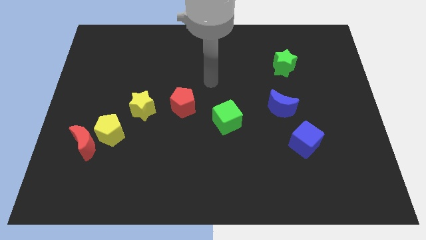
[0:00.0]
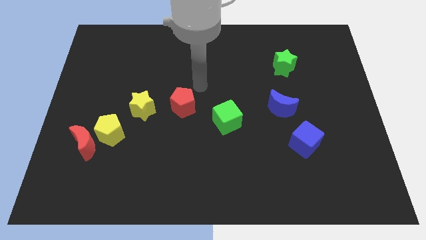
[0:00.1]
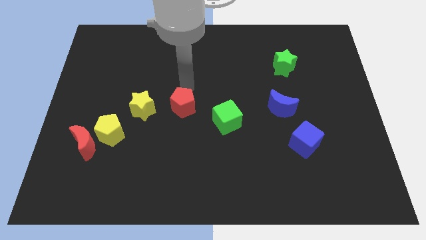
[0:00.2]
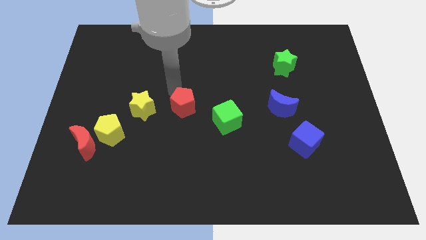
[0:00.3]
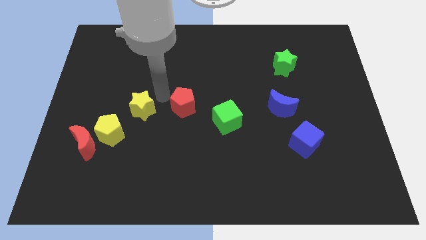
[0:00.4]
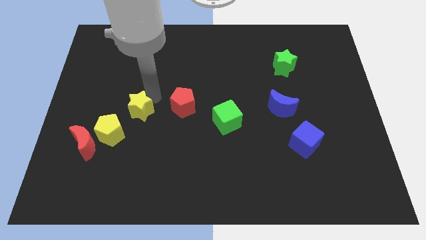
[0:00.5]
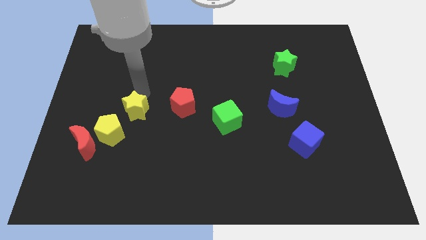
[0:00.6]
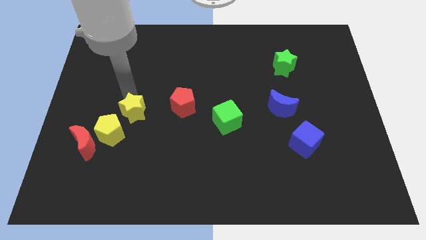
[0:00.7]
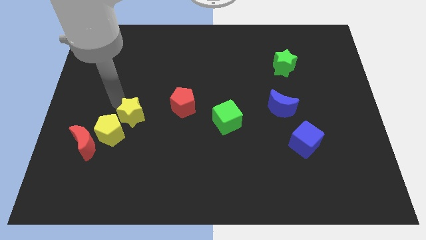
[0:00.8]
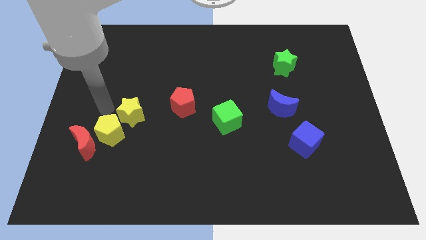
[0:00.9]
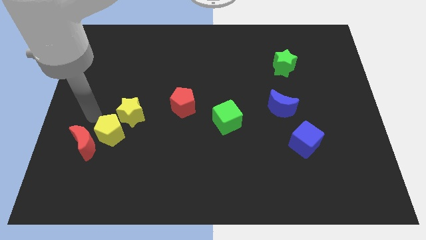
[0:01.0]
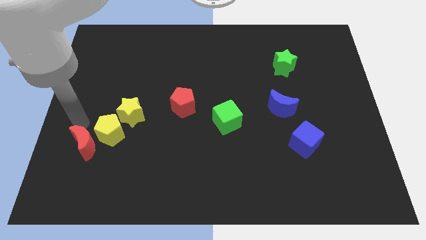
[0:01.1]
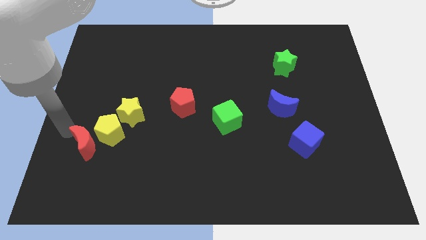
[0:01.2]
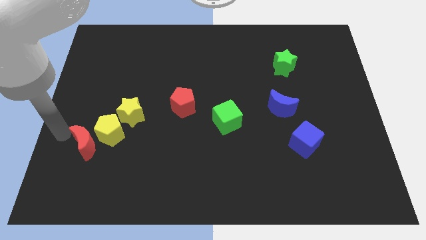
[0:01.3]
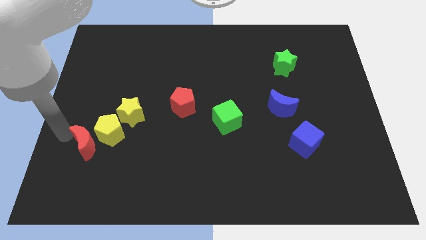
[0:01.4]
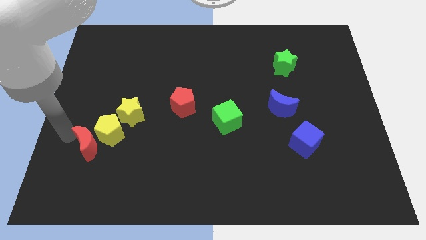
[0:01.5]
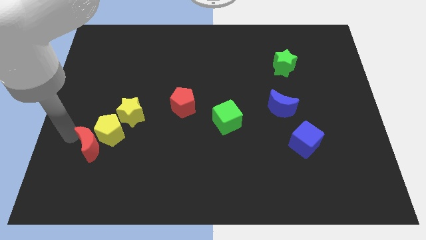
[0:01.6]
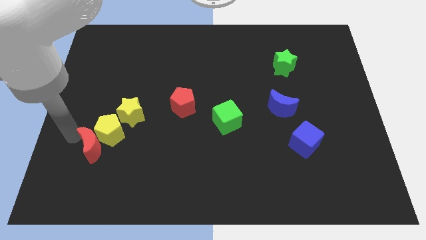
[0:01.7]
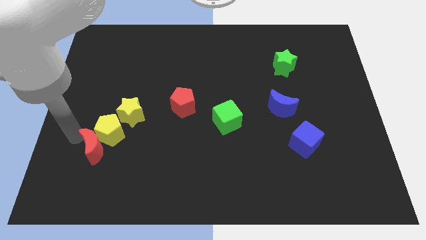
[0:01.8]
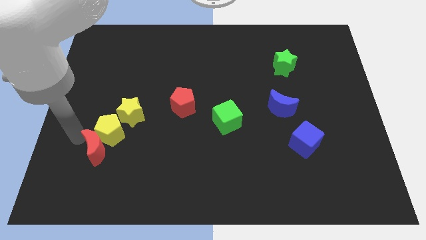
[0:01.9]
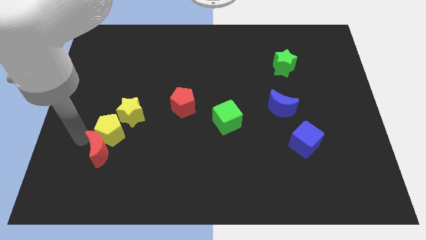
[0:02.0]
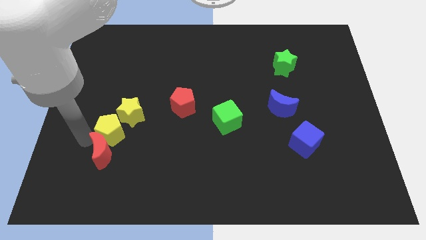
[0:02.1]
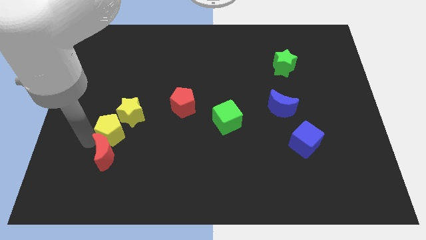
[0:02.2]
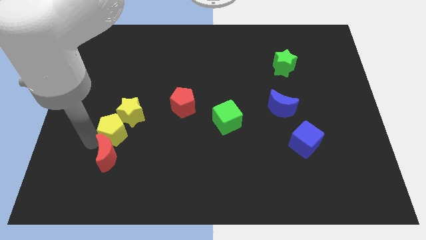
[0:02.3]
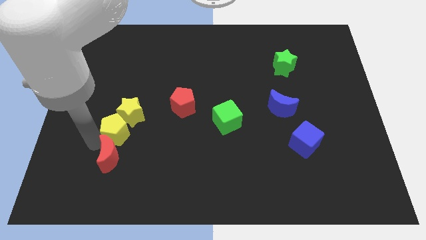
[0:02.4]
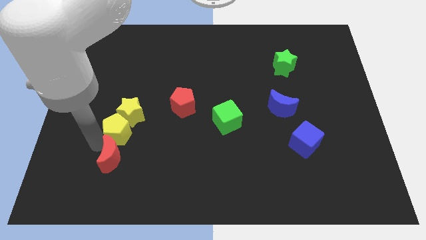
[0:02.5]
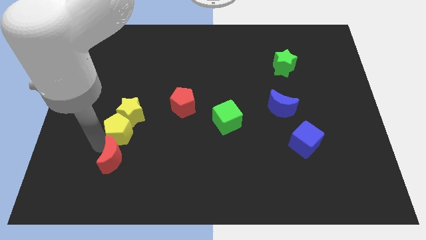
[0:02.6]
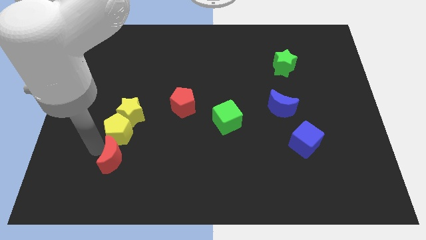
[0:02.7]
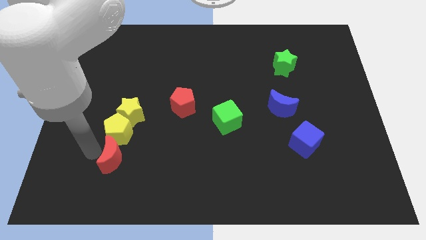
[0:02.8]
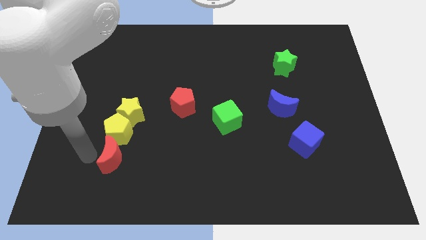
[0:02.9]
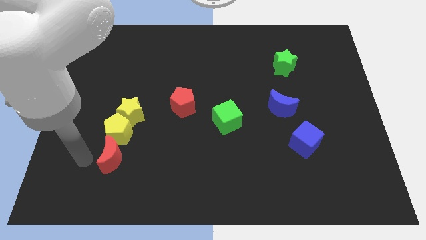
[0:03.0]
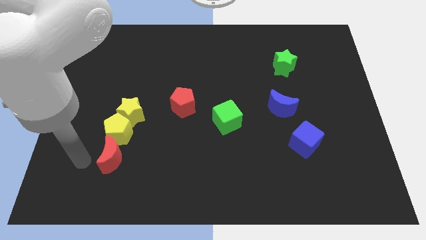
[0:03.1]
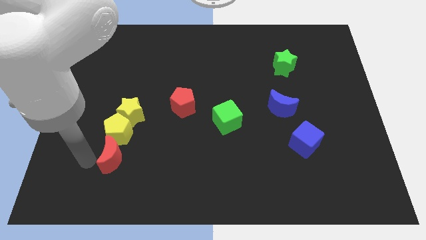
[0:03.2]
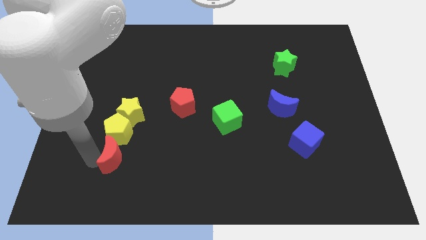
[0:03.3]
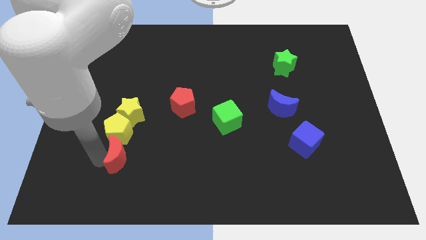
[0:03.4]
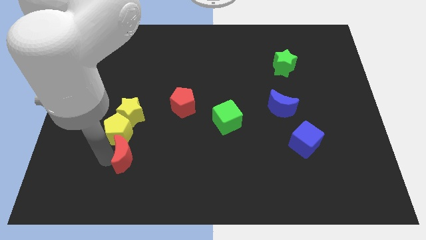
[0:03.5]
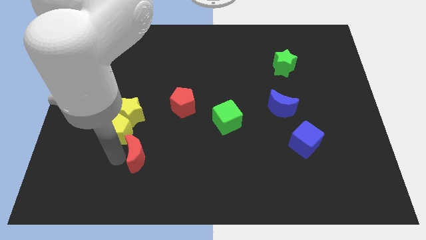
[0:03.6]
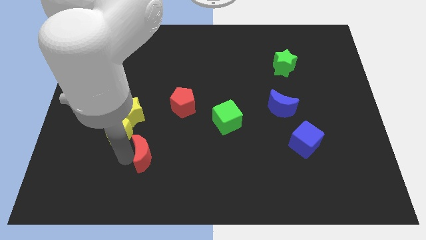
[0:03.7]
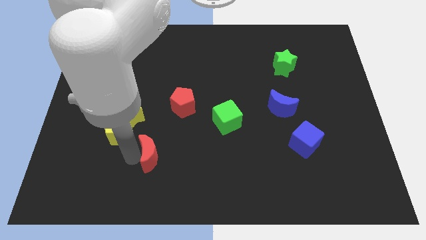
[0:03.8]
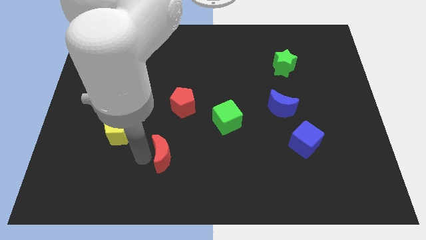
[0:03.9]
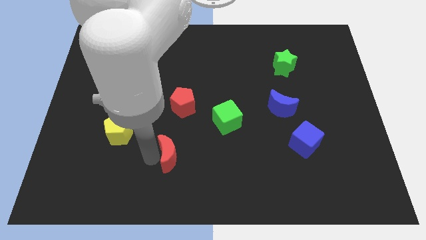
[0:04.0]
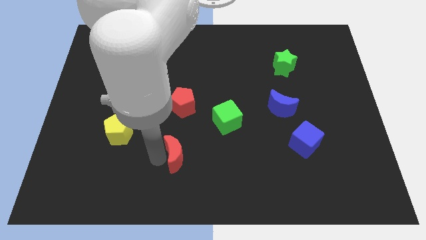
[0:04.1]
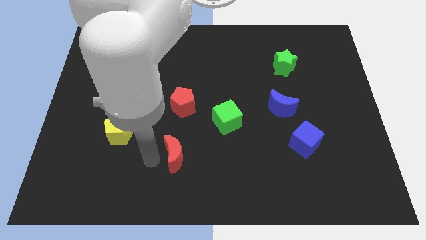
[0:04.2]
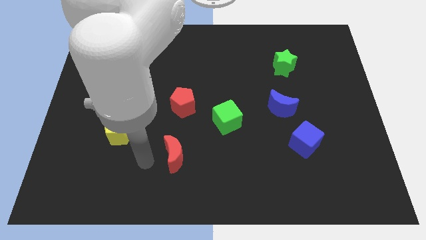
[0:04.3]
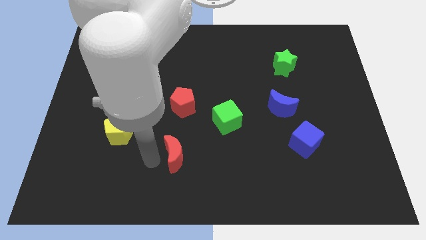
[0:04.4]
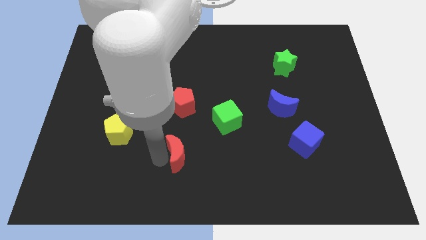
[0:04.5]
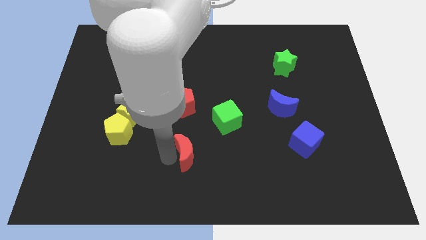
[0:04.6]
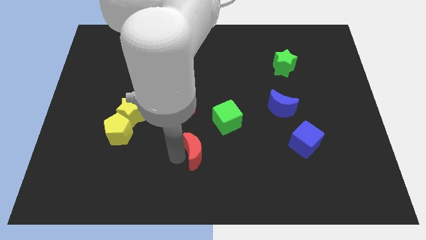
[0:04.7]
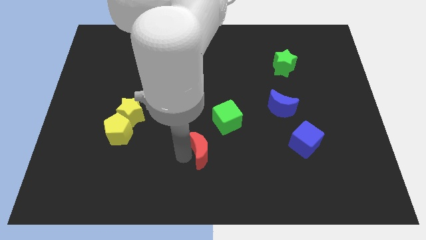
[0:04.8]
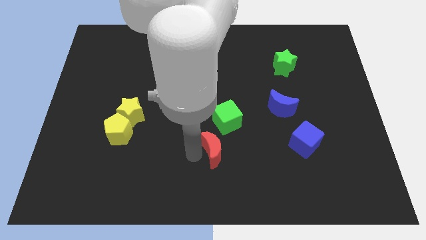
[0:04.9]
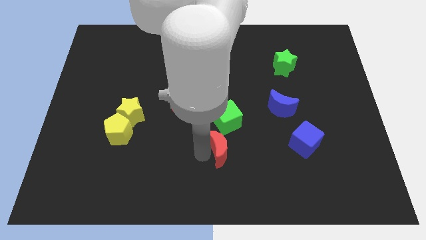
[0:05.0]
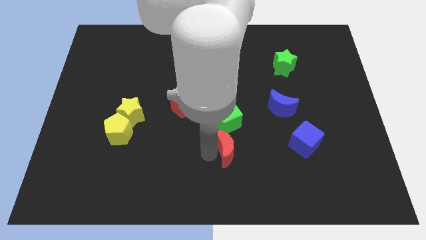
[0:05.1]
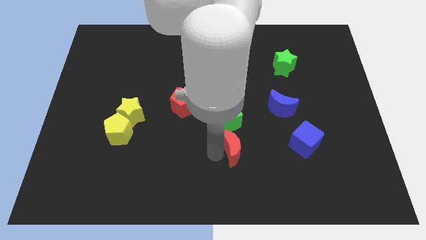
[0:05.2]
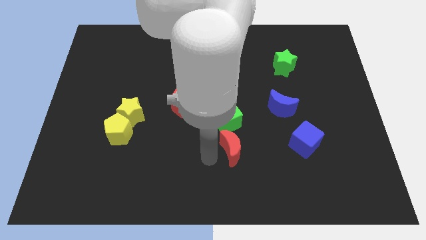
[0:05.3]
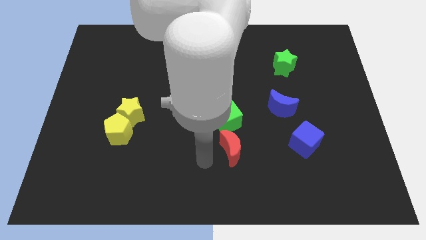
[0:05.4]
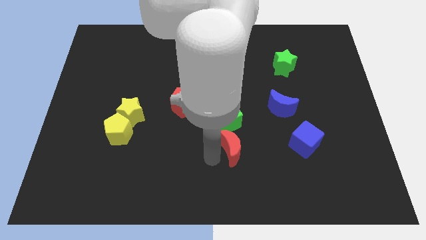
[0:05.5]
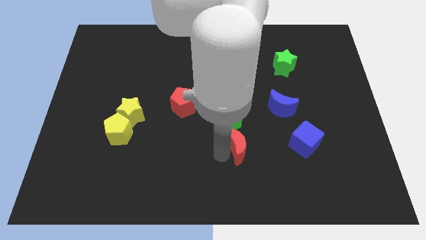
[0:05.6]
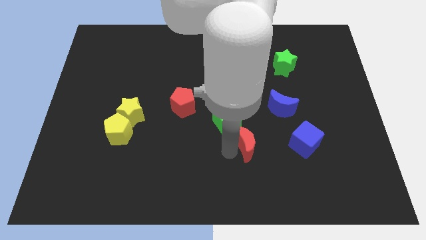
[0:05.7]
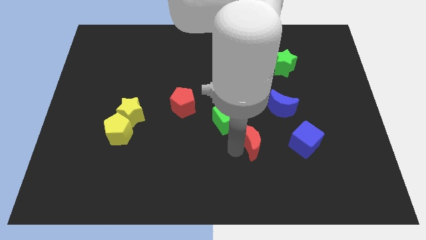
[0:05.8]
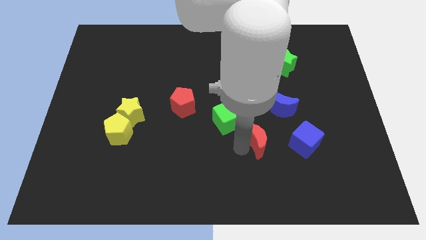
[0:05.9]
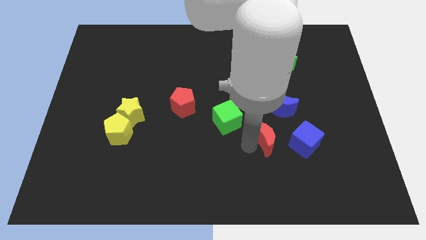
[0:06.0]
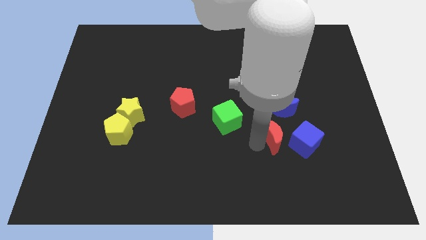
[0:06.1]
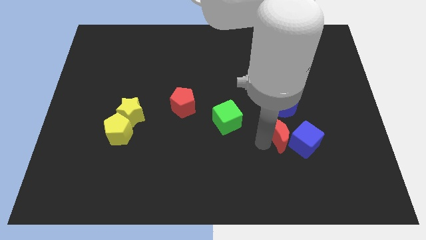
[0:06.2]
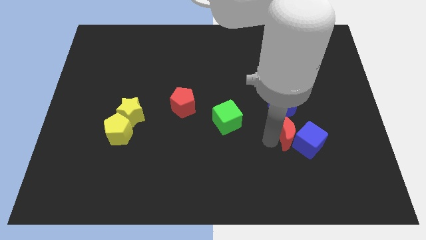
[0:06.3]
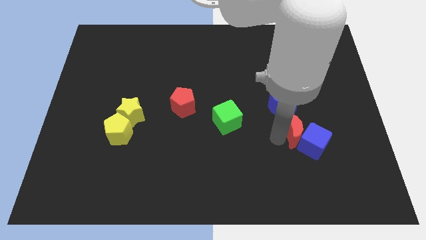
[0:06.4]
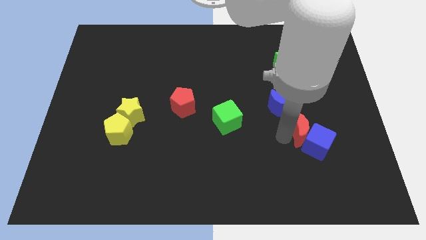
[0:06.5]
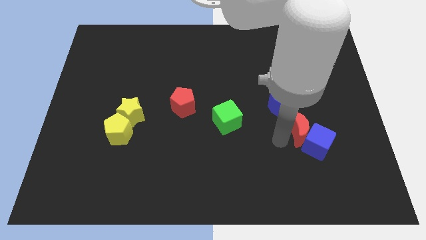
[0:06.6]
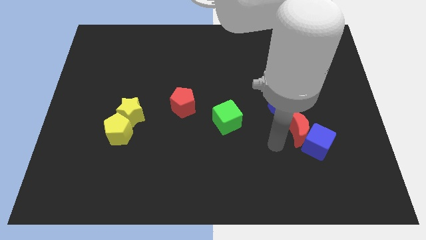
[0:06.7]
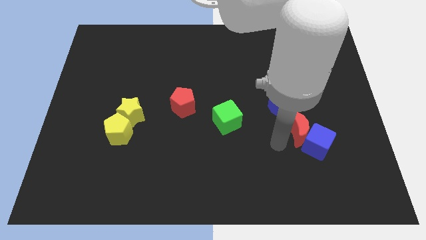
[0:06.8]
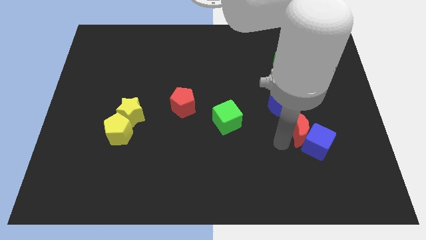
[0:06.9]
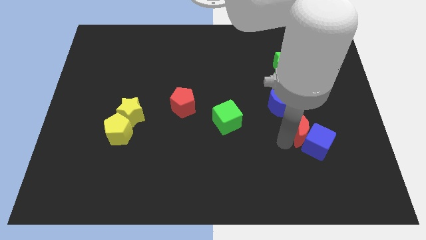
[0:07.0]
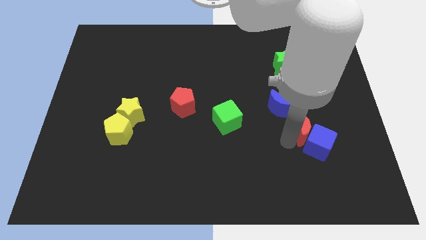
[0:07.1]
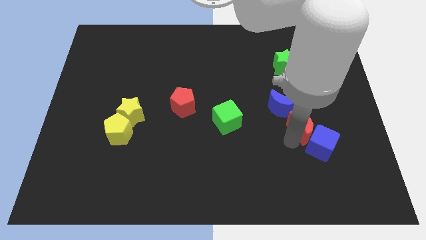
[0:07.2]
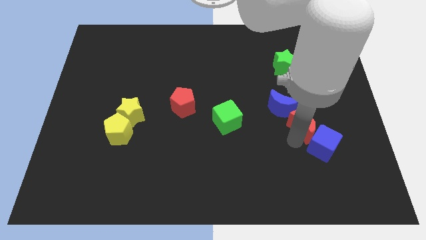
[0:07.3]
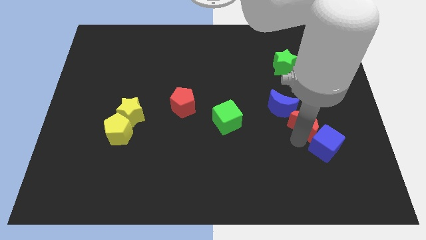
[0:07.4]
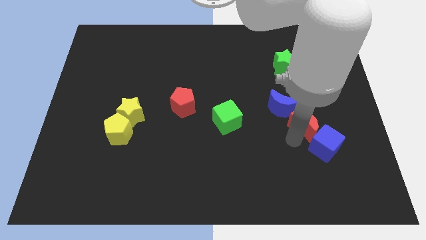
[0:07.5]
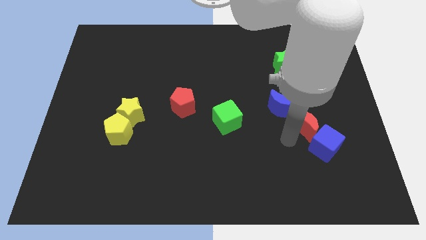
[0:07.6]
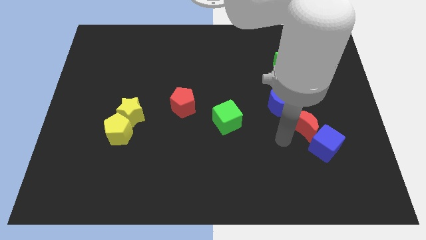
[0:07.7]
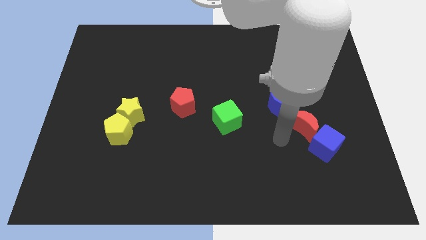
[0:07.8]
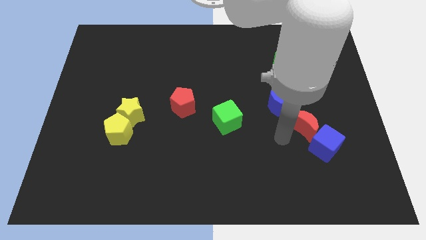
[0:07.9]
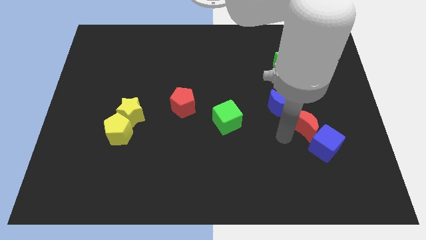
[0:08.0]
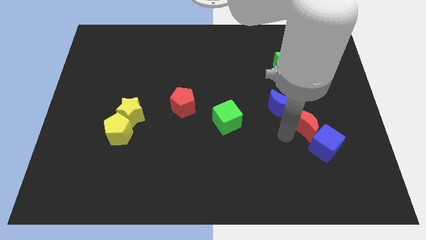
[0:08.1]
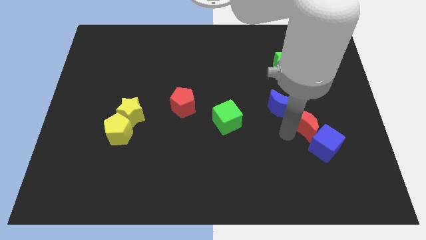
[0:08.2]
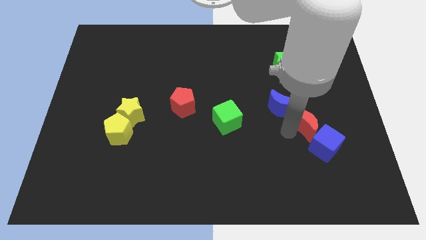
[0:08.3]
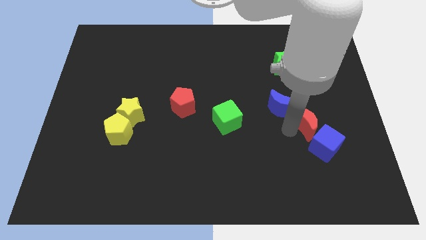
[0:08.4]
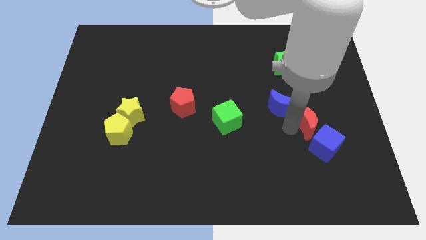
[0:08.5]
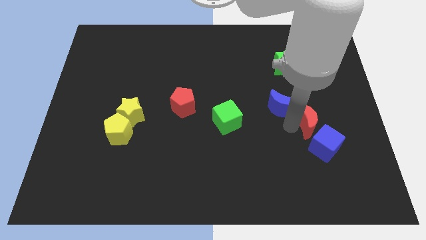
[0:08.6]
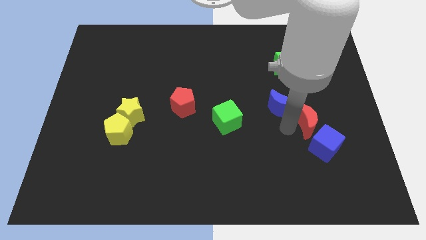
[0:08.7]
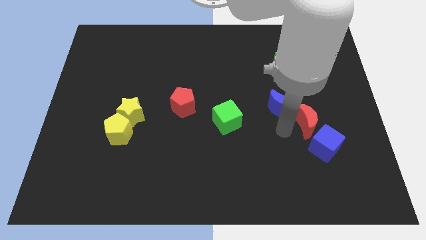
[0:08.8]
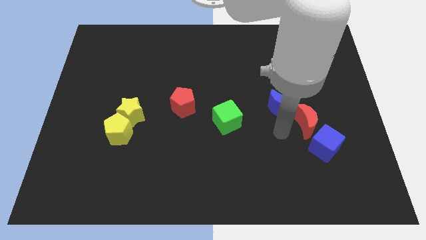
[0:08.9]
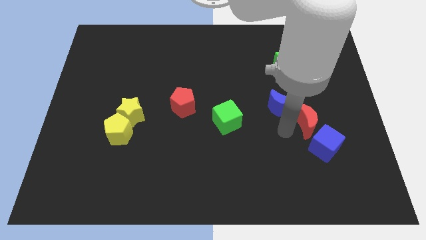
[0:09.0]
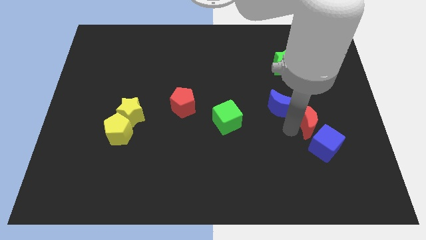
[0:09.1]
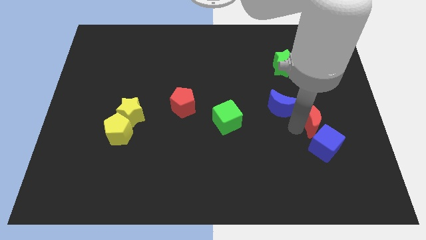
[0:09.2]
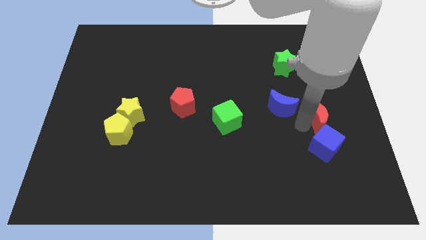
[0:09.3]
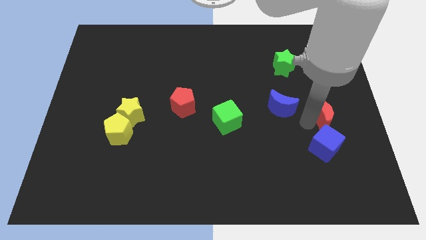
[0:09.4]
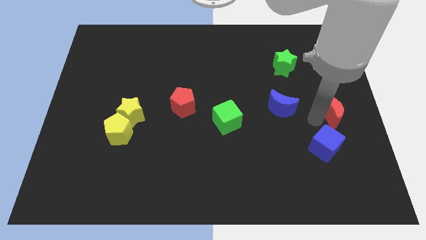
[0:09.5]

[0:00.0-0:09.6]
move the red moon to the right side
